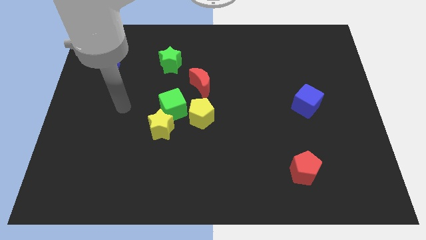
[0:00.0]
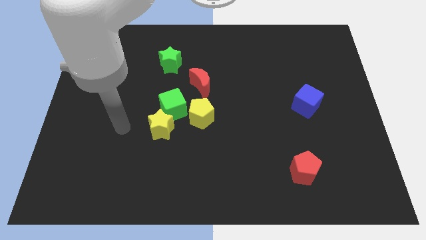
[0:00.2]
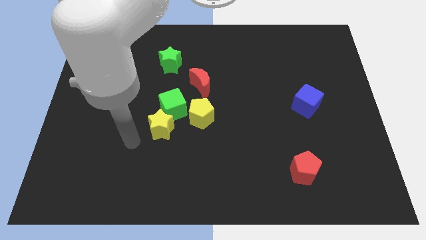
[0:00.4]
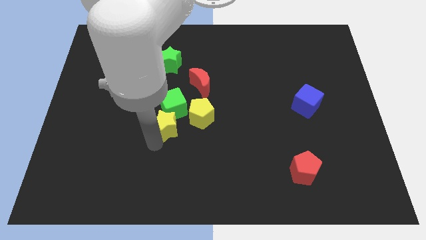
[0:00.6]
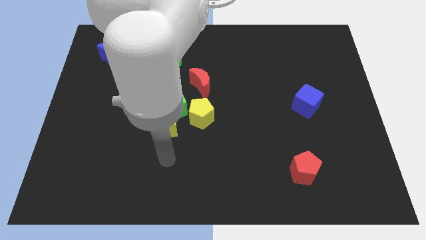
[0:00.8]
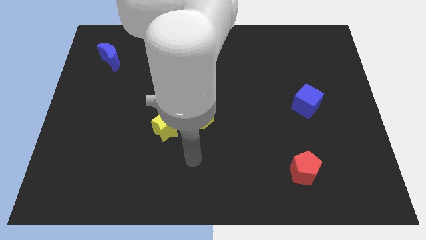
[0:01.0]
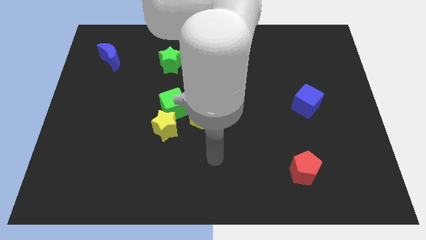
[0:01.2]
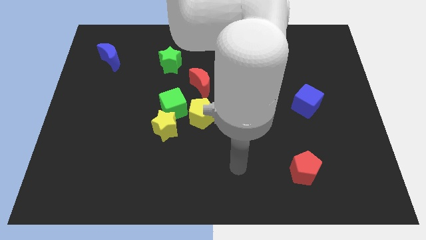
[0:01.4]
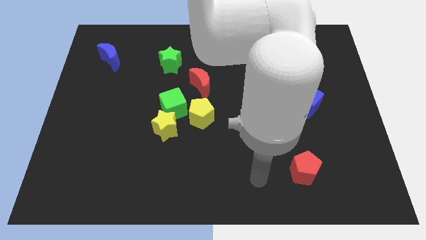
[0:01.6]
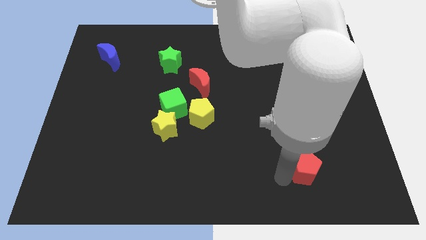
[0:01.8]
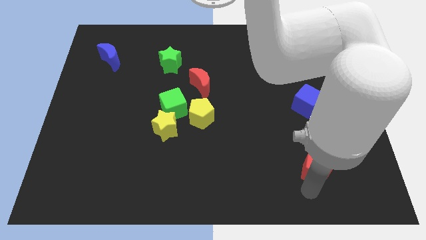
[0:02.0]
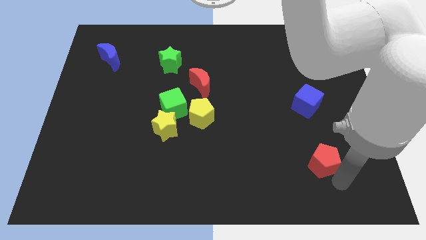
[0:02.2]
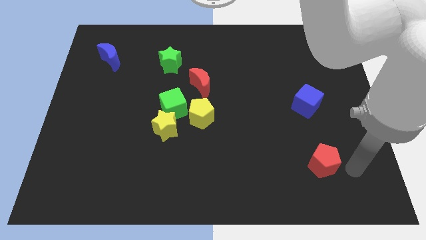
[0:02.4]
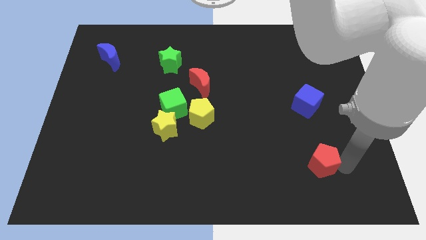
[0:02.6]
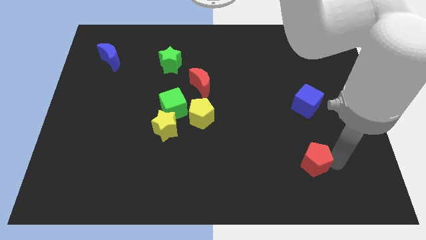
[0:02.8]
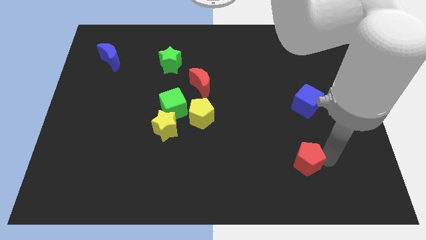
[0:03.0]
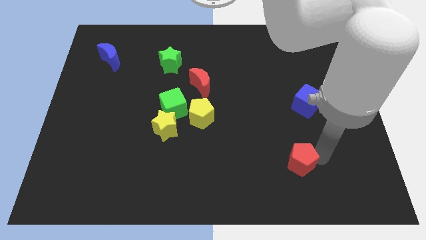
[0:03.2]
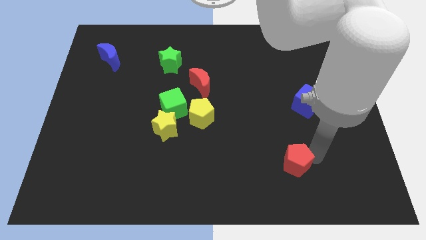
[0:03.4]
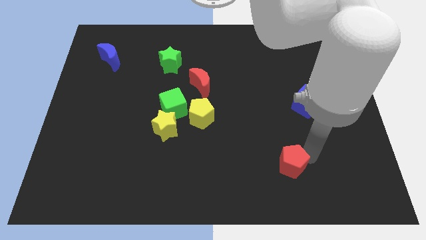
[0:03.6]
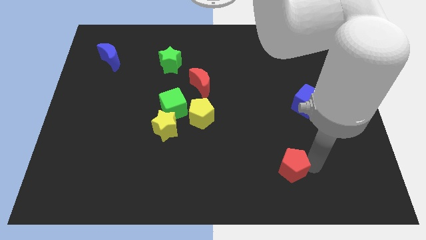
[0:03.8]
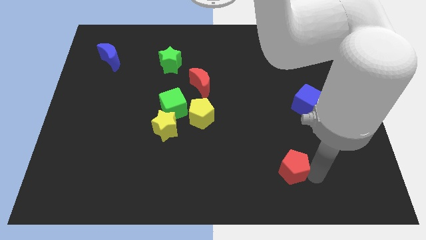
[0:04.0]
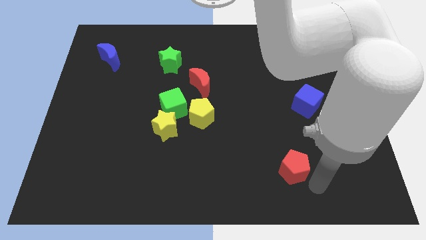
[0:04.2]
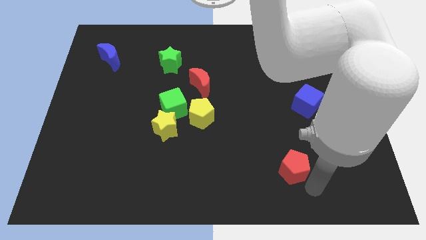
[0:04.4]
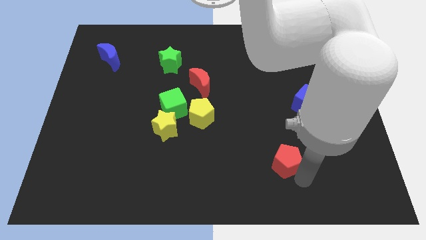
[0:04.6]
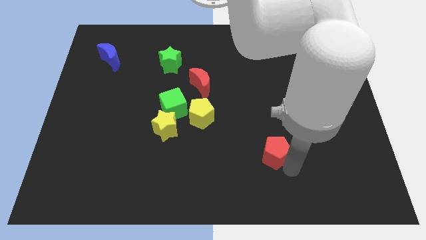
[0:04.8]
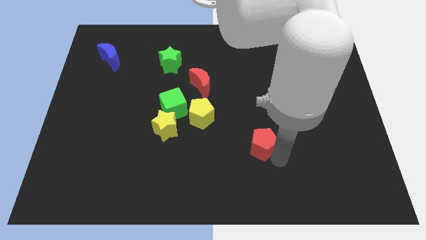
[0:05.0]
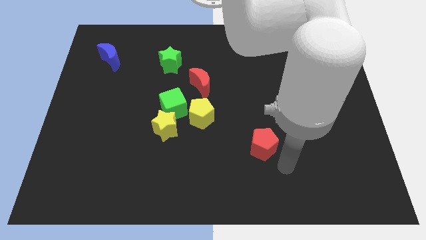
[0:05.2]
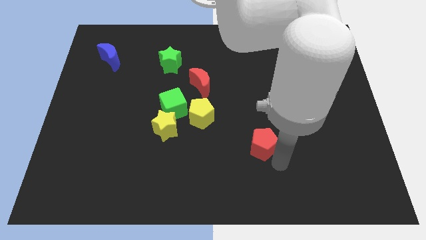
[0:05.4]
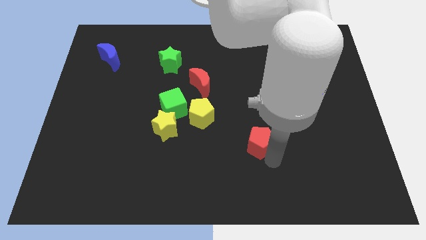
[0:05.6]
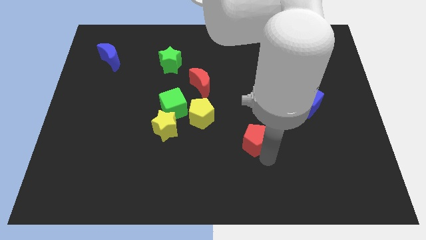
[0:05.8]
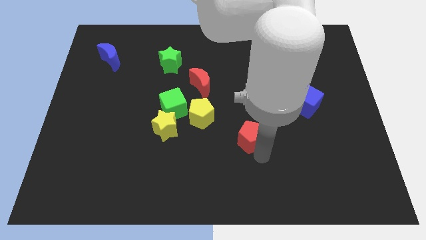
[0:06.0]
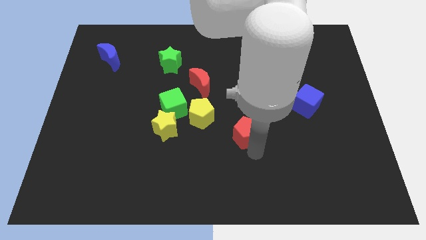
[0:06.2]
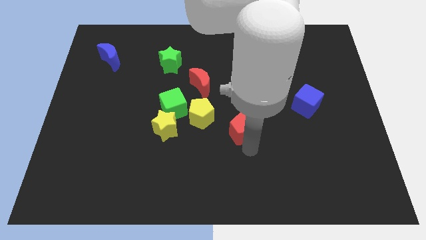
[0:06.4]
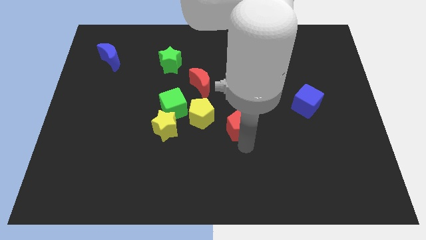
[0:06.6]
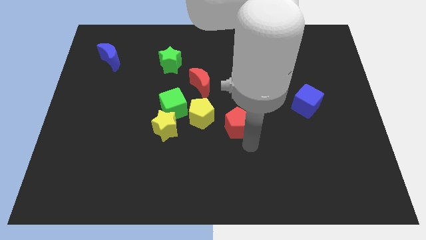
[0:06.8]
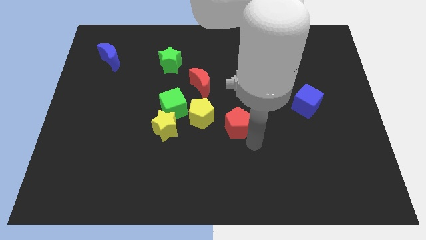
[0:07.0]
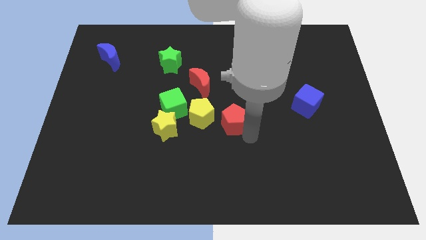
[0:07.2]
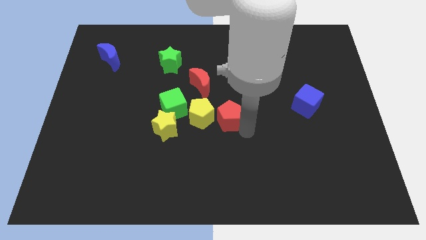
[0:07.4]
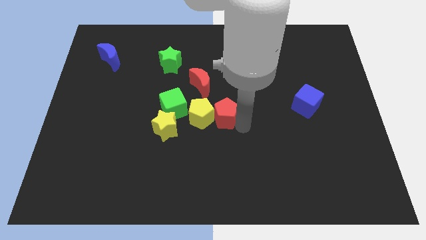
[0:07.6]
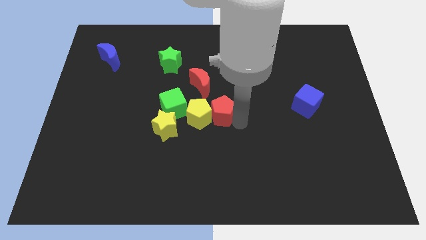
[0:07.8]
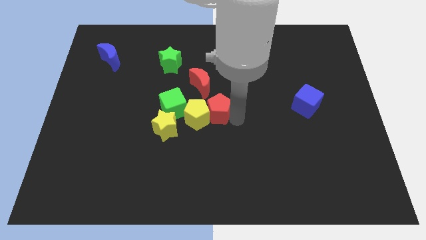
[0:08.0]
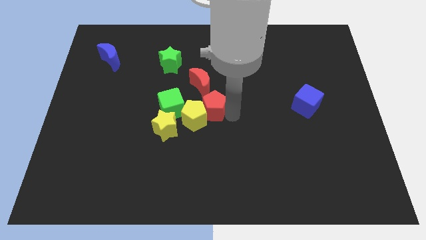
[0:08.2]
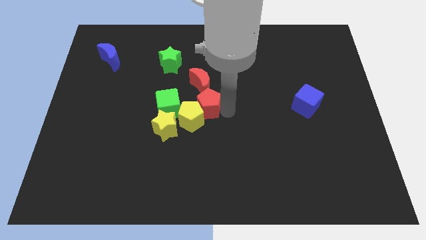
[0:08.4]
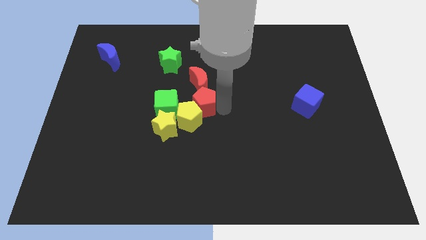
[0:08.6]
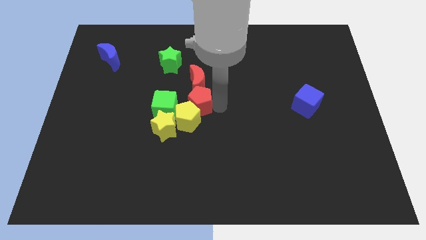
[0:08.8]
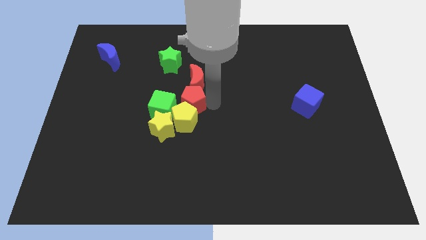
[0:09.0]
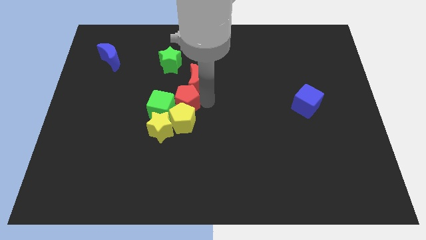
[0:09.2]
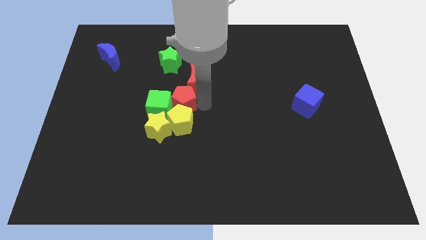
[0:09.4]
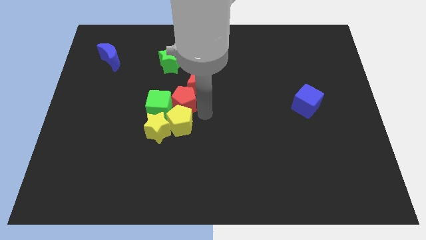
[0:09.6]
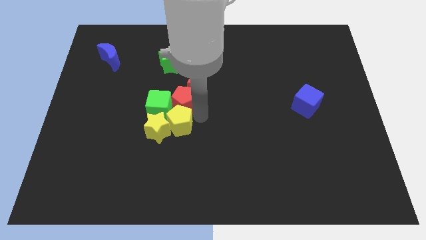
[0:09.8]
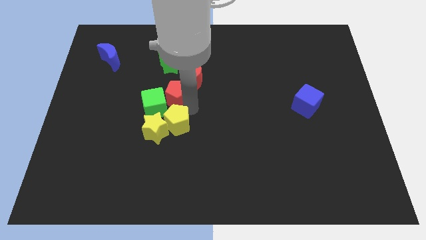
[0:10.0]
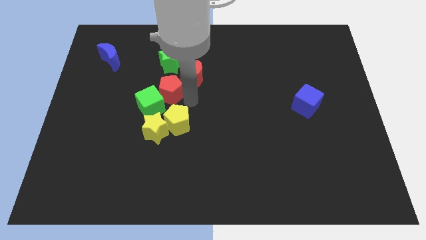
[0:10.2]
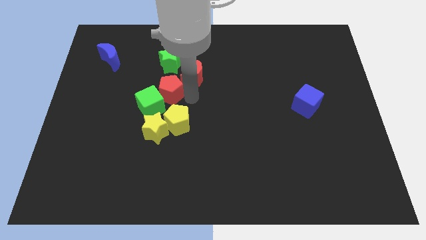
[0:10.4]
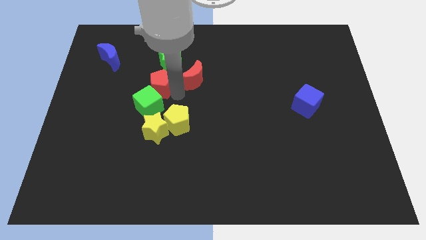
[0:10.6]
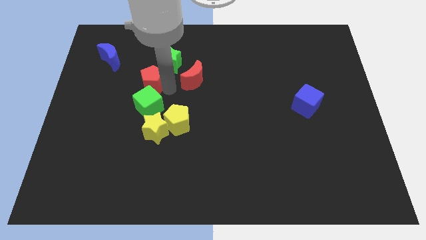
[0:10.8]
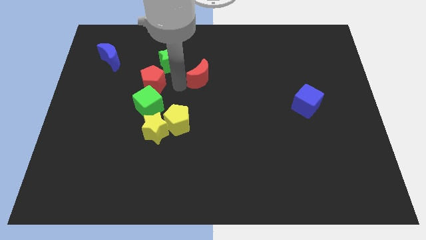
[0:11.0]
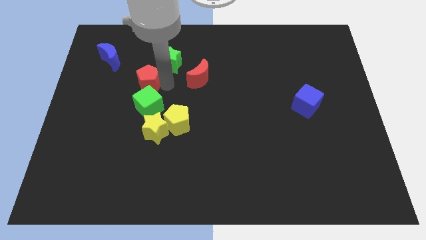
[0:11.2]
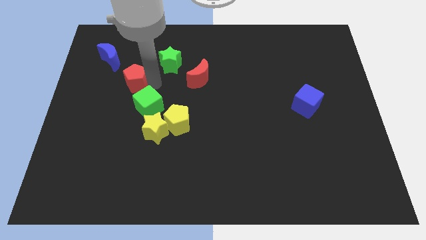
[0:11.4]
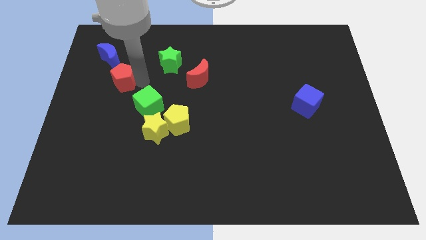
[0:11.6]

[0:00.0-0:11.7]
push the red pentagon below the blue moon

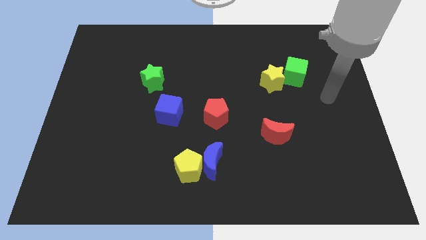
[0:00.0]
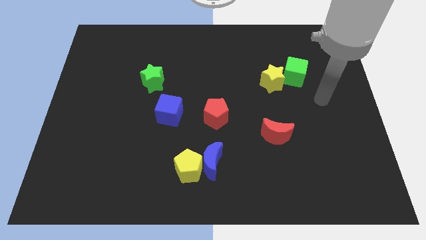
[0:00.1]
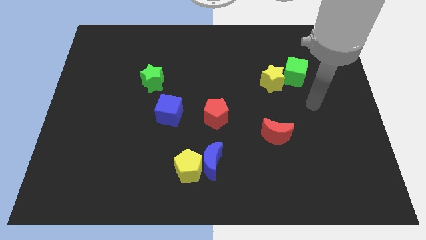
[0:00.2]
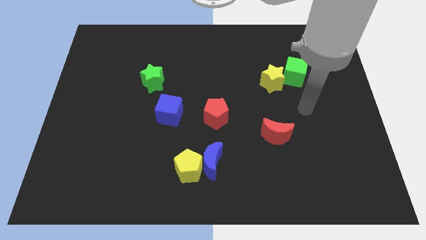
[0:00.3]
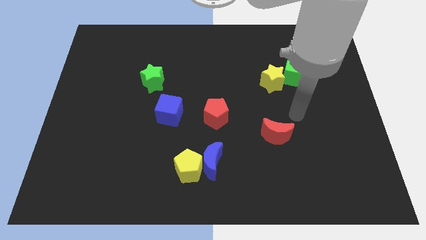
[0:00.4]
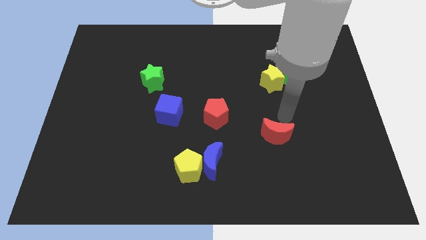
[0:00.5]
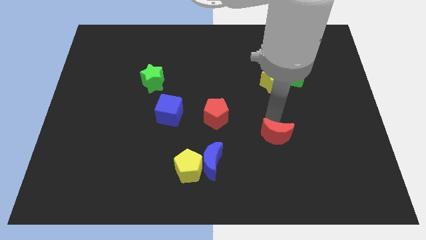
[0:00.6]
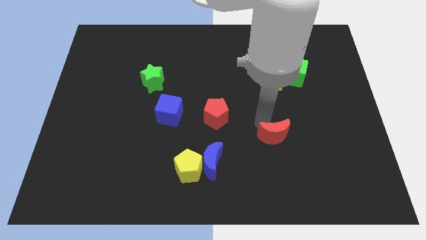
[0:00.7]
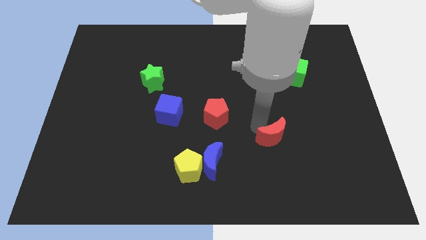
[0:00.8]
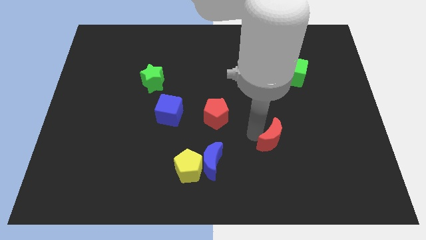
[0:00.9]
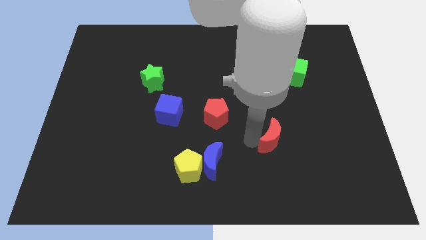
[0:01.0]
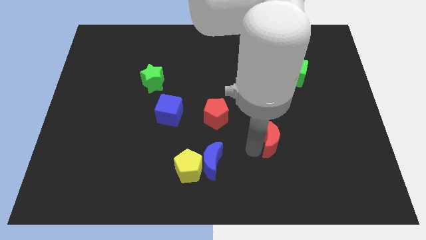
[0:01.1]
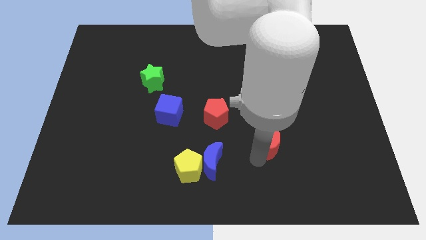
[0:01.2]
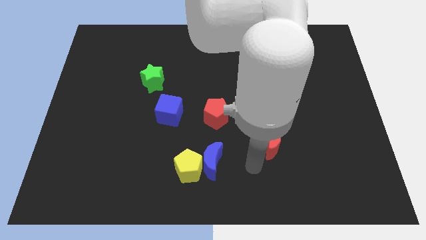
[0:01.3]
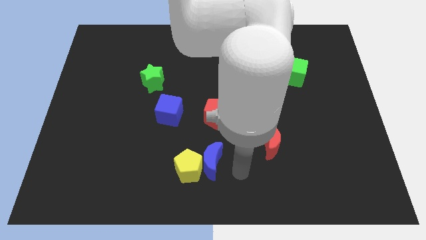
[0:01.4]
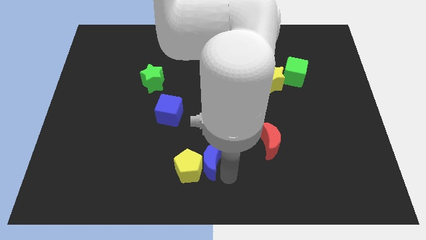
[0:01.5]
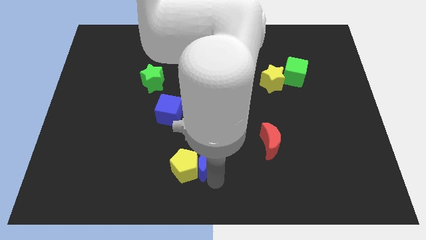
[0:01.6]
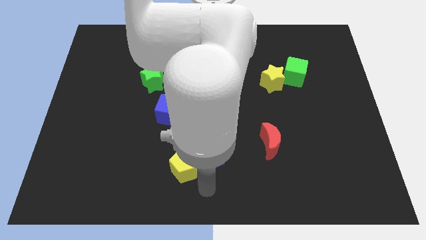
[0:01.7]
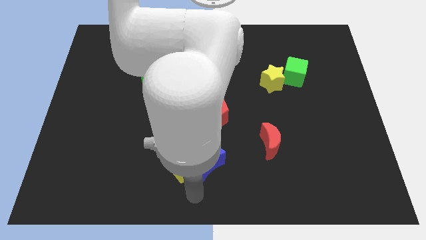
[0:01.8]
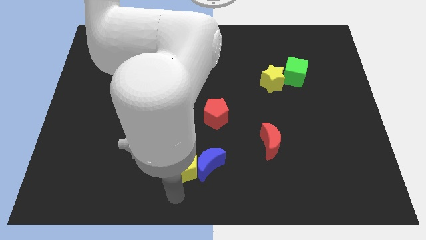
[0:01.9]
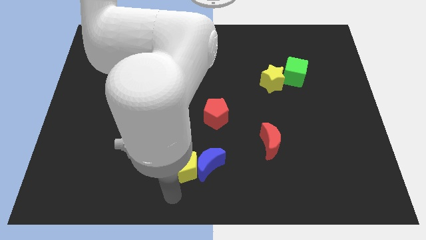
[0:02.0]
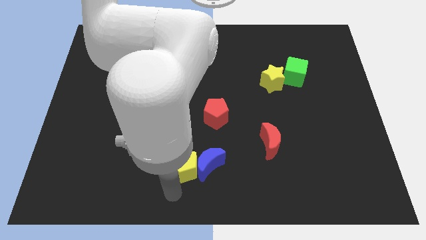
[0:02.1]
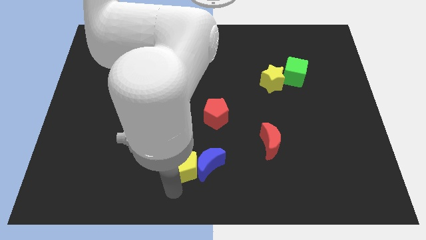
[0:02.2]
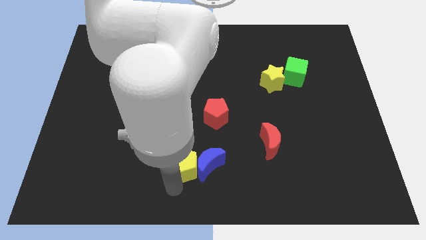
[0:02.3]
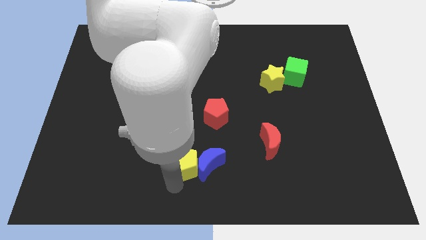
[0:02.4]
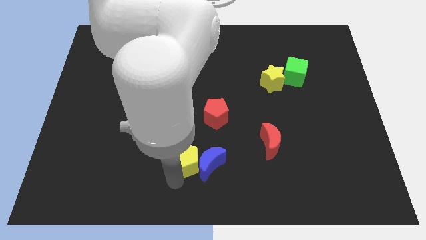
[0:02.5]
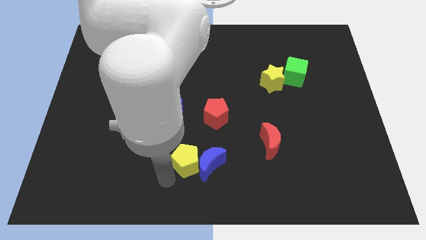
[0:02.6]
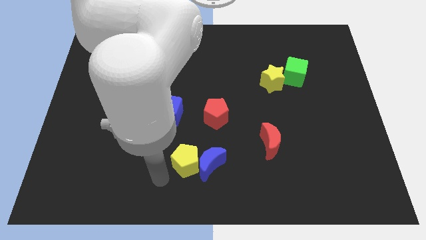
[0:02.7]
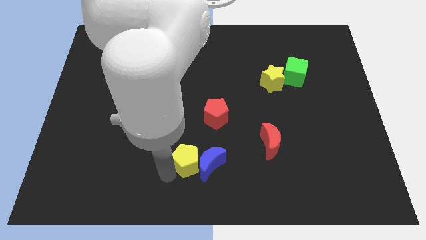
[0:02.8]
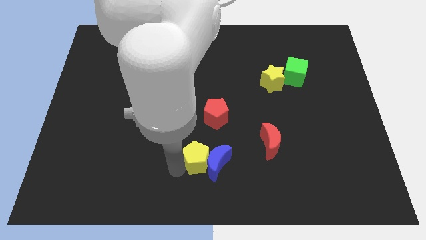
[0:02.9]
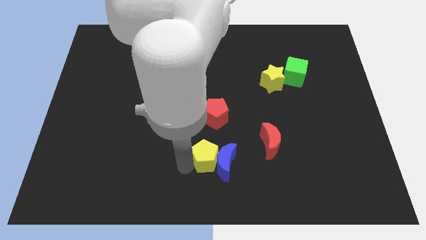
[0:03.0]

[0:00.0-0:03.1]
push the yellow pentagon left of the red moon
